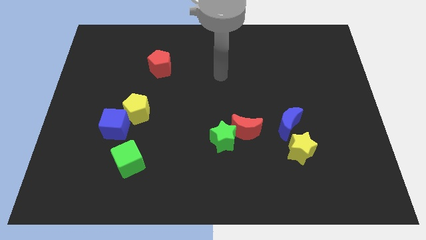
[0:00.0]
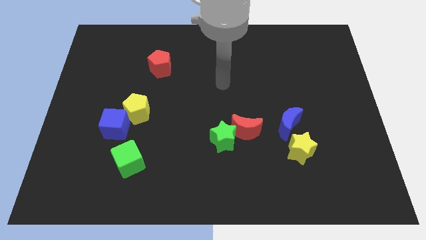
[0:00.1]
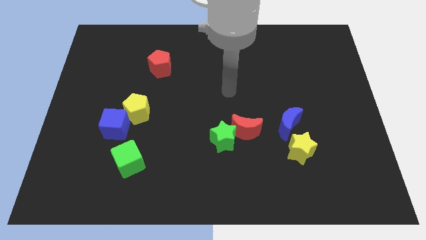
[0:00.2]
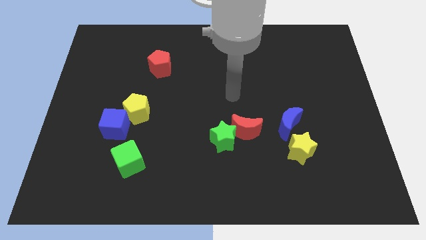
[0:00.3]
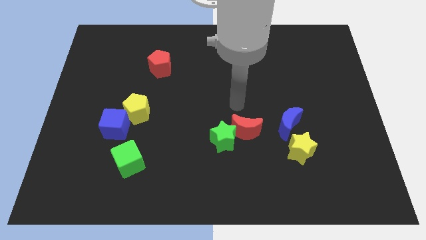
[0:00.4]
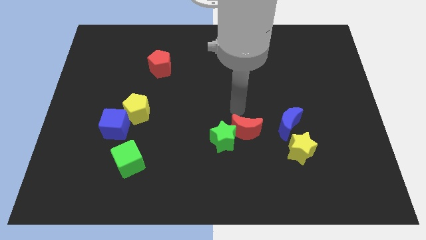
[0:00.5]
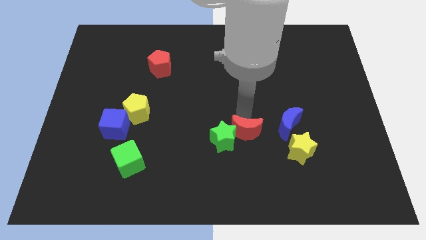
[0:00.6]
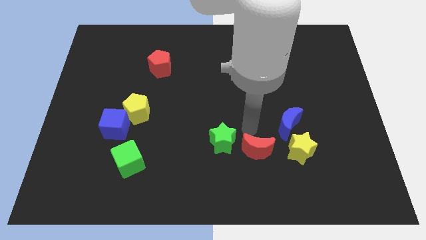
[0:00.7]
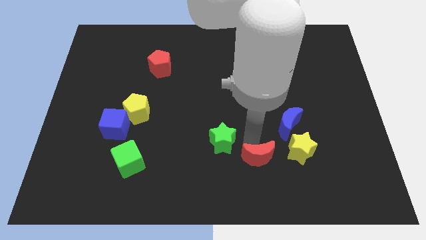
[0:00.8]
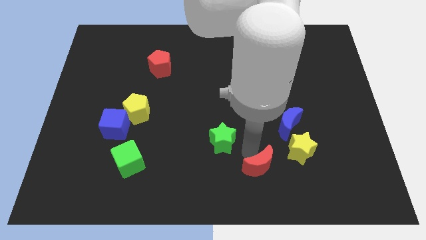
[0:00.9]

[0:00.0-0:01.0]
pull the green star apart from the red moon

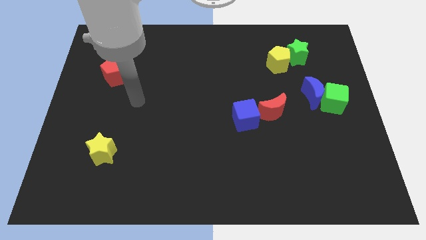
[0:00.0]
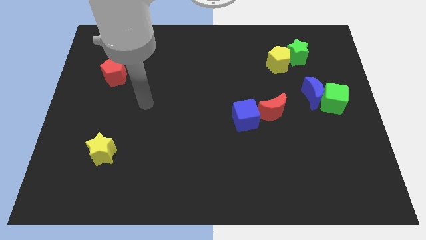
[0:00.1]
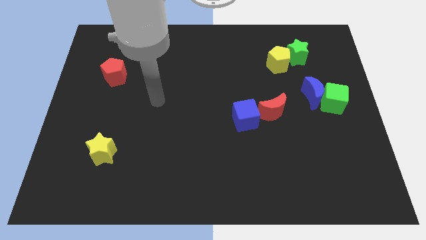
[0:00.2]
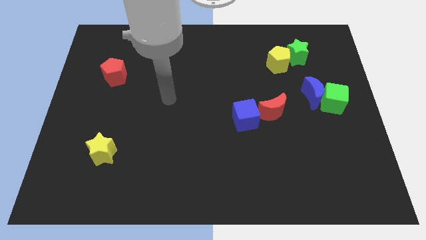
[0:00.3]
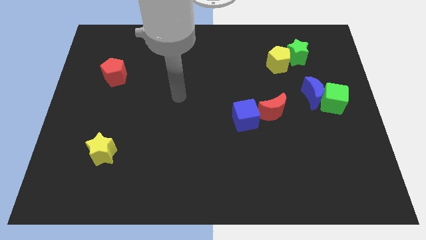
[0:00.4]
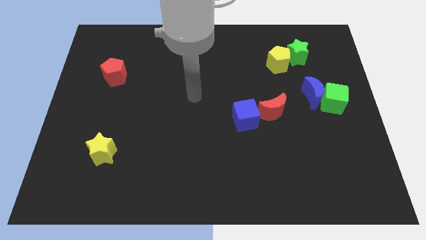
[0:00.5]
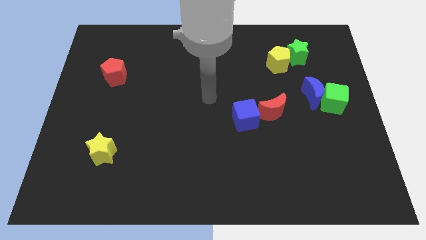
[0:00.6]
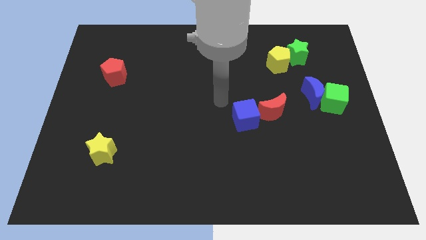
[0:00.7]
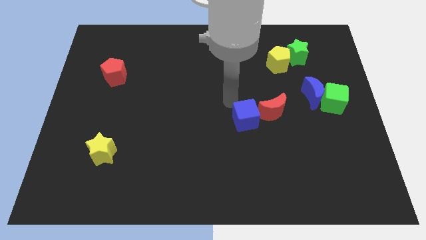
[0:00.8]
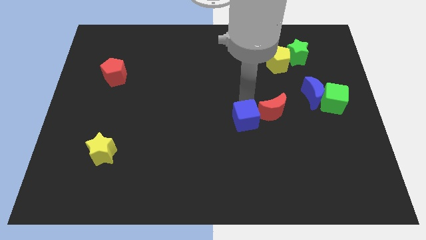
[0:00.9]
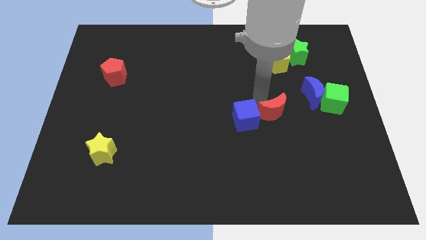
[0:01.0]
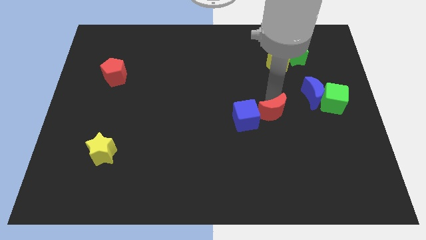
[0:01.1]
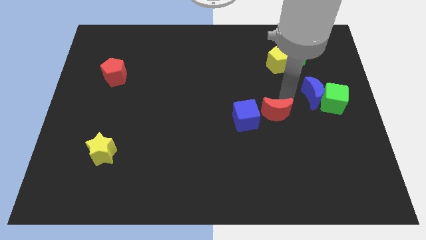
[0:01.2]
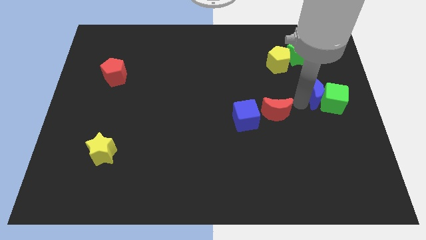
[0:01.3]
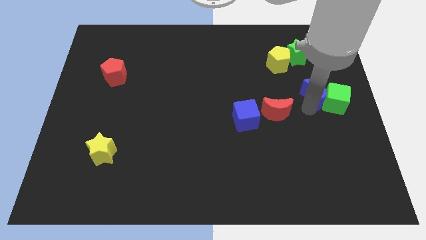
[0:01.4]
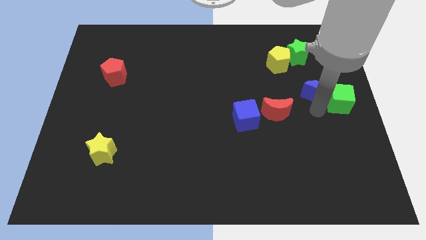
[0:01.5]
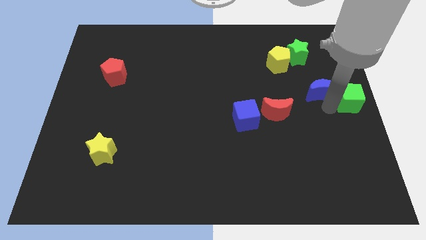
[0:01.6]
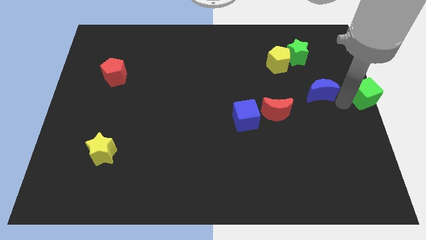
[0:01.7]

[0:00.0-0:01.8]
pull the blue moon apart from the green cube

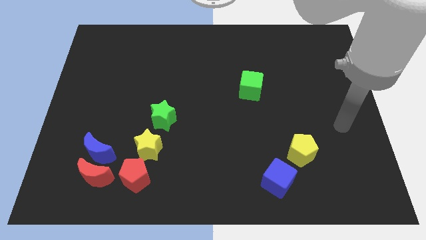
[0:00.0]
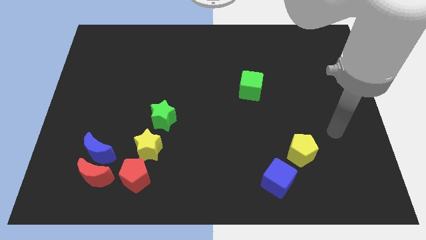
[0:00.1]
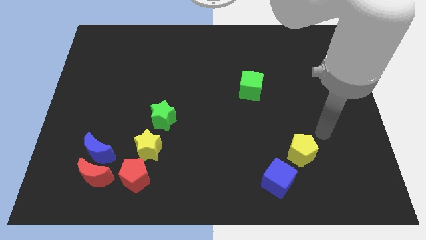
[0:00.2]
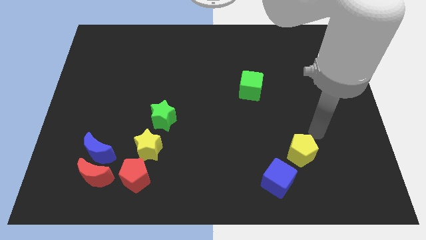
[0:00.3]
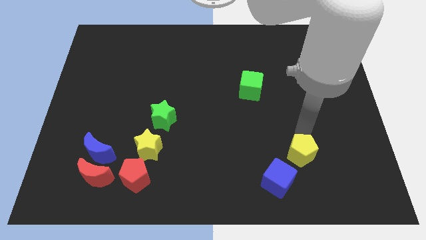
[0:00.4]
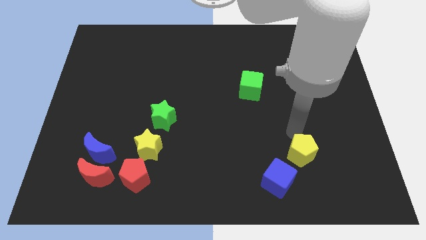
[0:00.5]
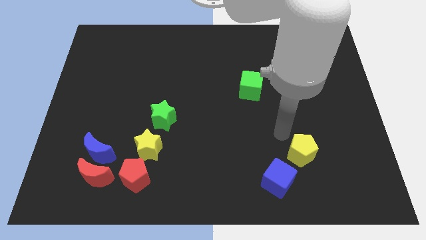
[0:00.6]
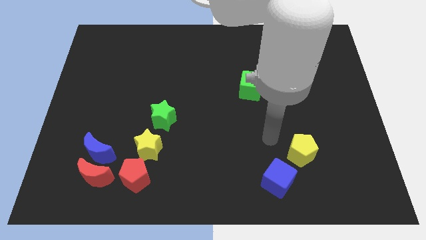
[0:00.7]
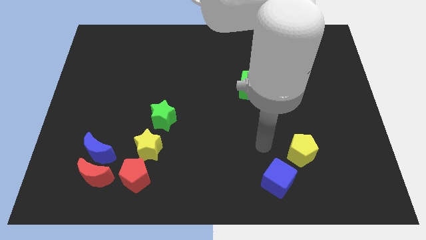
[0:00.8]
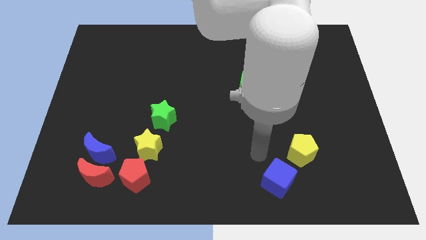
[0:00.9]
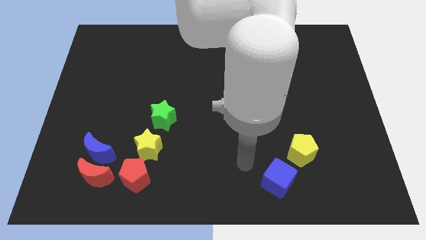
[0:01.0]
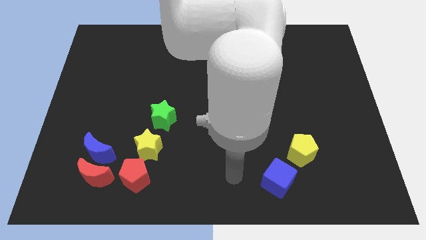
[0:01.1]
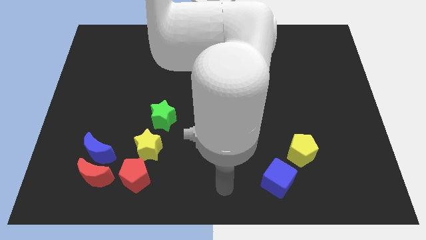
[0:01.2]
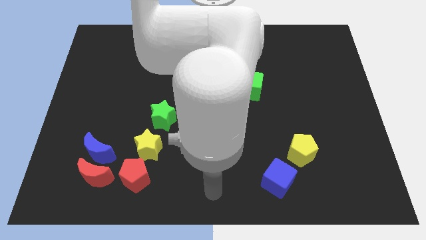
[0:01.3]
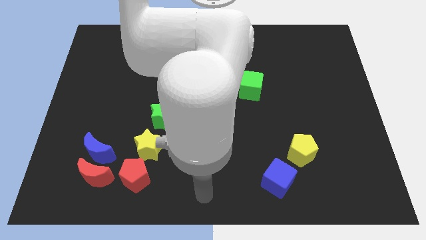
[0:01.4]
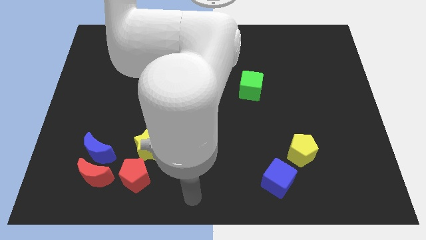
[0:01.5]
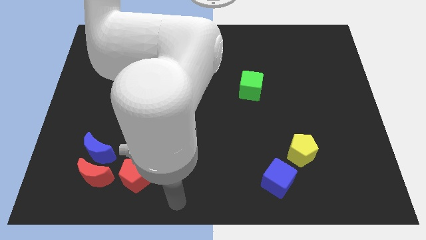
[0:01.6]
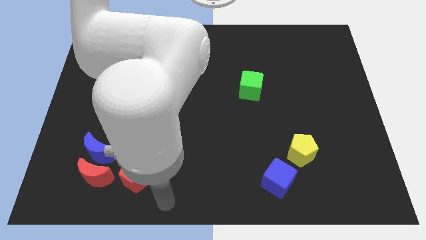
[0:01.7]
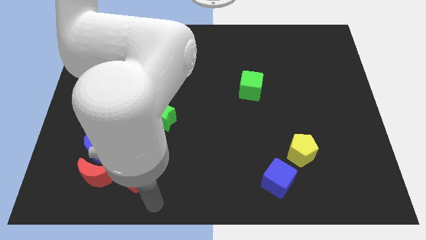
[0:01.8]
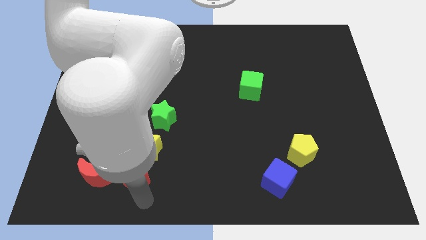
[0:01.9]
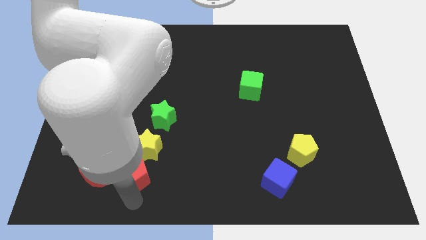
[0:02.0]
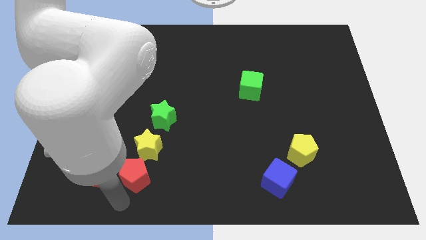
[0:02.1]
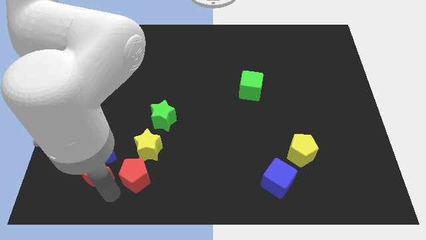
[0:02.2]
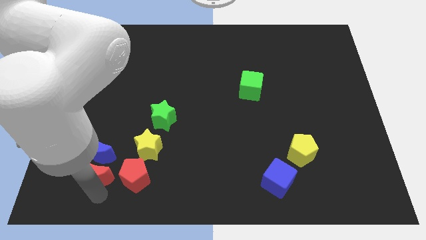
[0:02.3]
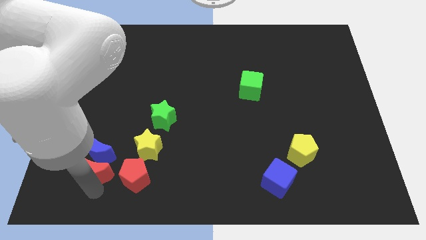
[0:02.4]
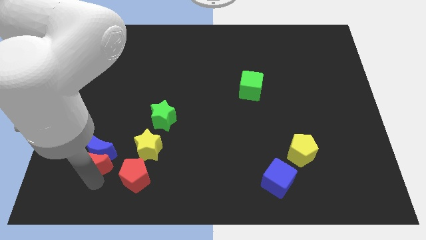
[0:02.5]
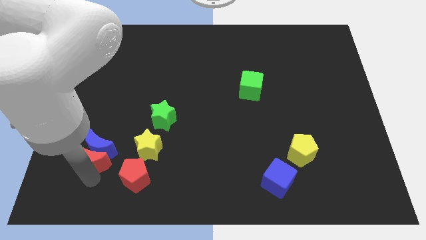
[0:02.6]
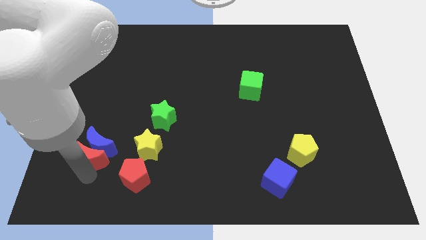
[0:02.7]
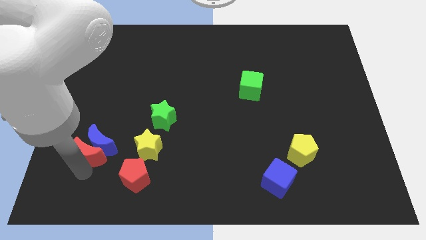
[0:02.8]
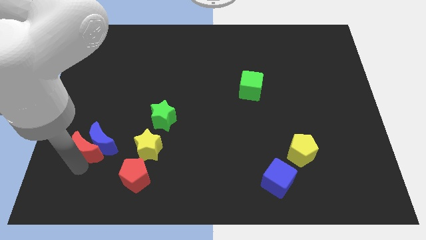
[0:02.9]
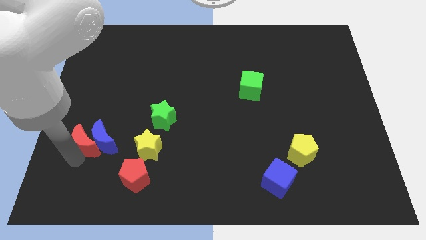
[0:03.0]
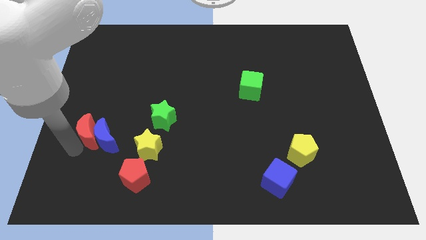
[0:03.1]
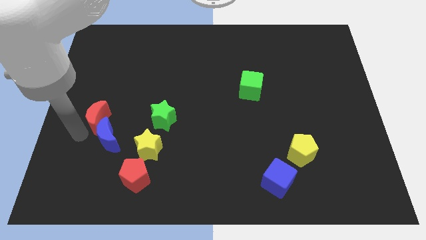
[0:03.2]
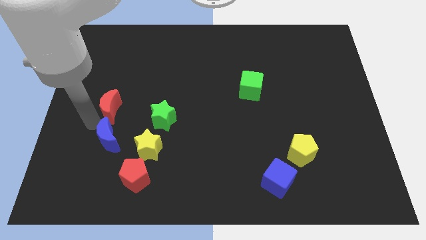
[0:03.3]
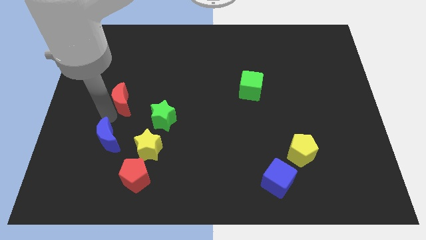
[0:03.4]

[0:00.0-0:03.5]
pull the blue moon apart from the red moon

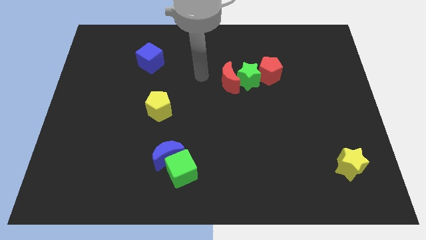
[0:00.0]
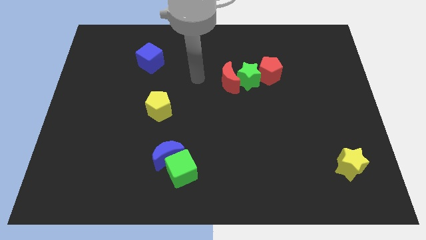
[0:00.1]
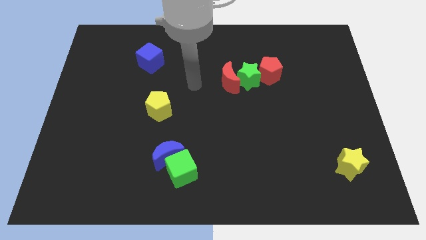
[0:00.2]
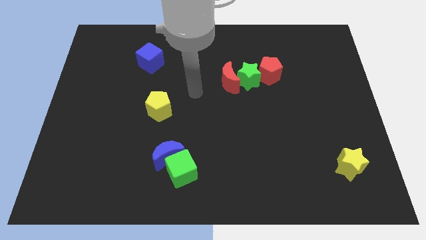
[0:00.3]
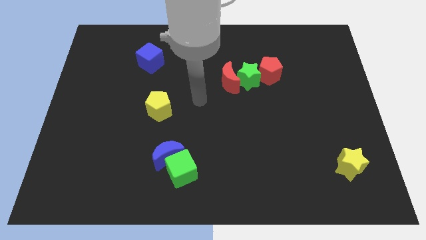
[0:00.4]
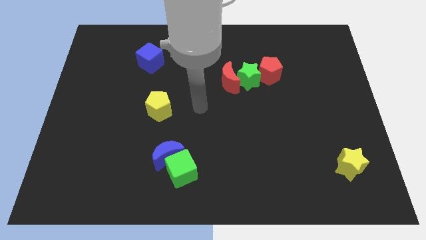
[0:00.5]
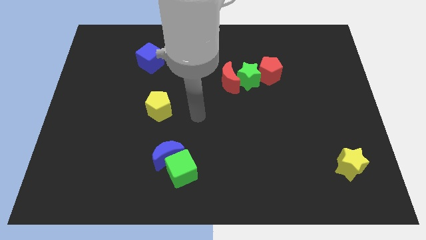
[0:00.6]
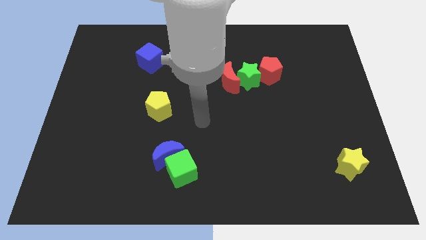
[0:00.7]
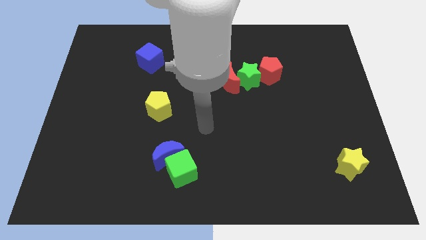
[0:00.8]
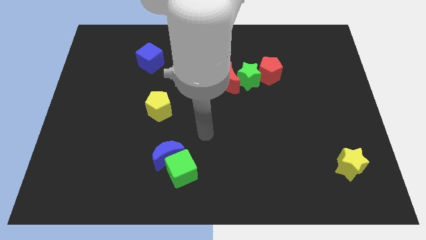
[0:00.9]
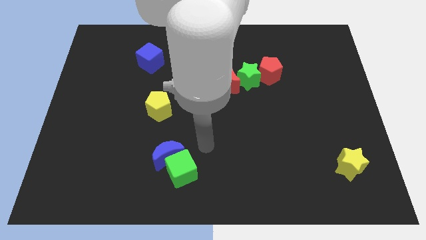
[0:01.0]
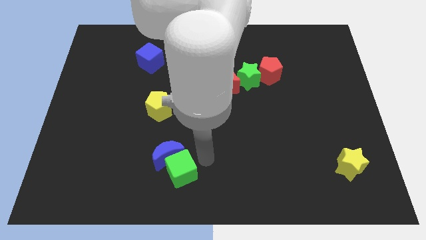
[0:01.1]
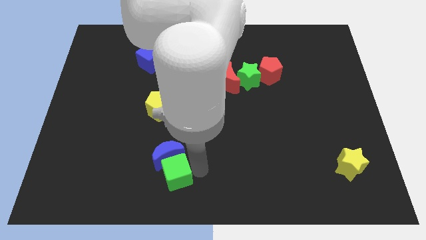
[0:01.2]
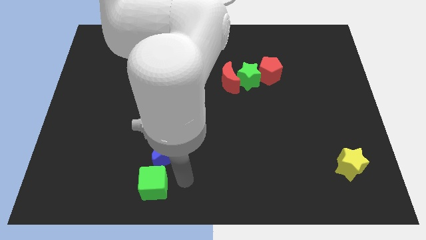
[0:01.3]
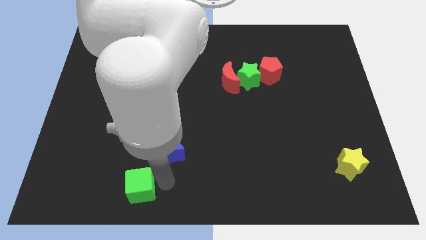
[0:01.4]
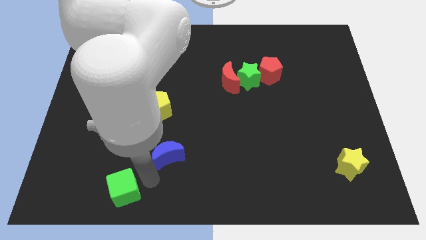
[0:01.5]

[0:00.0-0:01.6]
separate the blue moon from the green cube

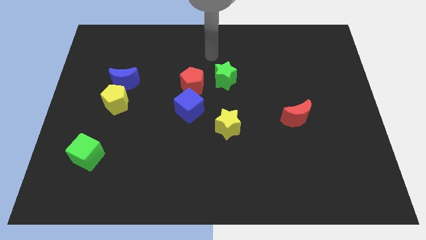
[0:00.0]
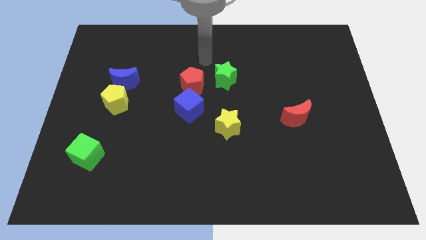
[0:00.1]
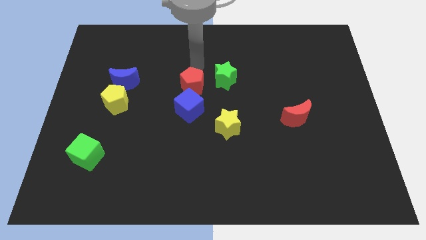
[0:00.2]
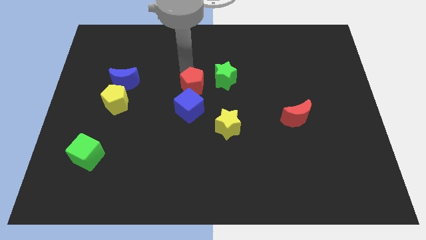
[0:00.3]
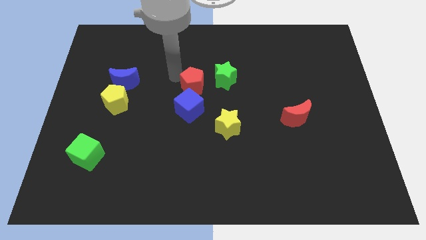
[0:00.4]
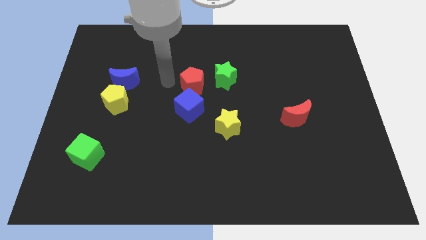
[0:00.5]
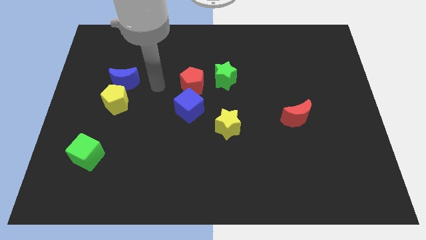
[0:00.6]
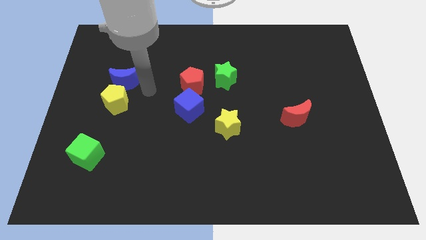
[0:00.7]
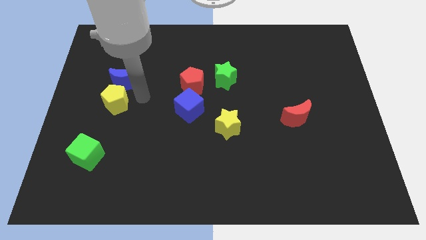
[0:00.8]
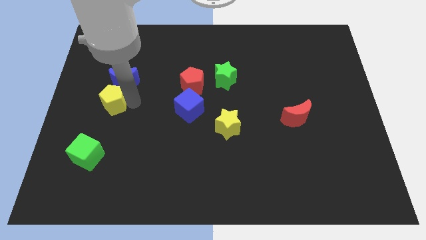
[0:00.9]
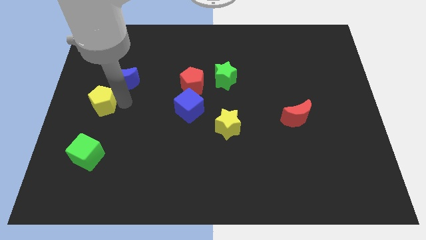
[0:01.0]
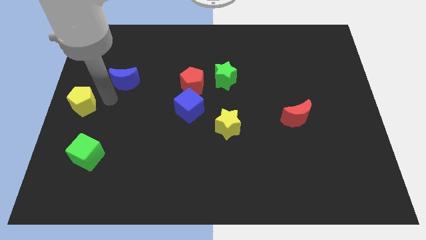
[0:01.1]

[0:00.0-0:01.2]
move the blue moon away from the yellow pentagon

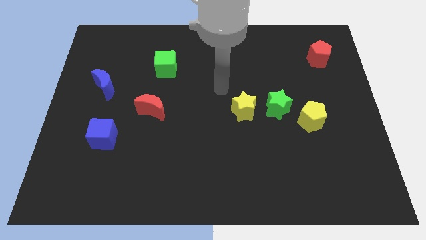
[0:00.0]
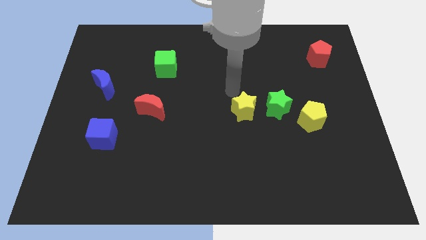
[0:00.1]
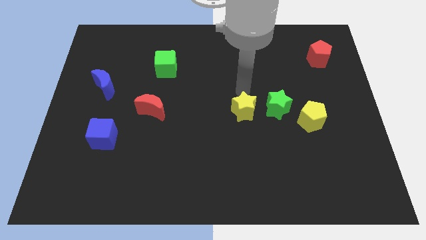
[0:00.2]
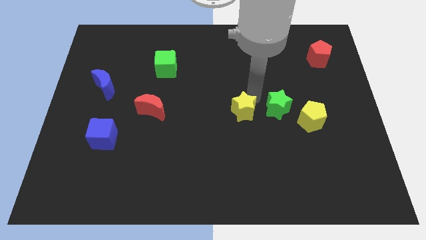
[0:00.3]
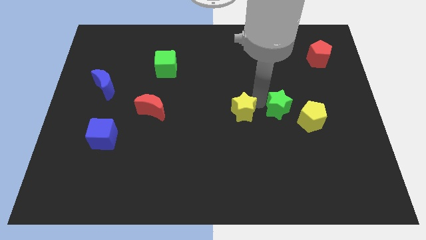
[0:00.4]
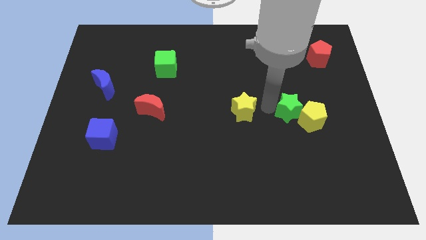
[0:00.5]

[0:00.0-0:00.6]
pull the yellow star apart from the green star
